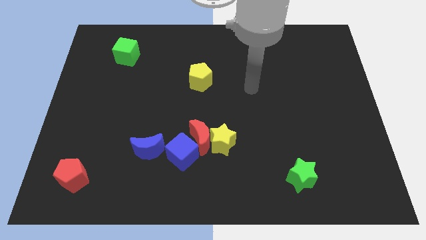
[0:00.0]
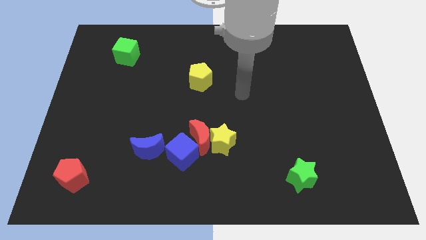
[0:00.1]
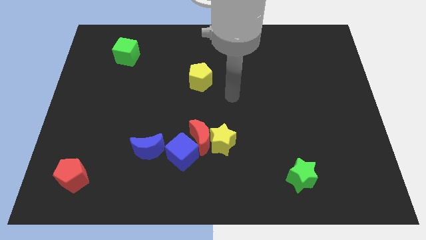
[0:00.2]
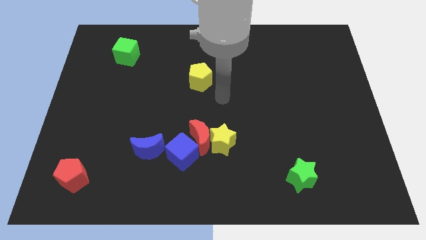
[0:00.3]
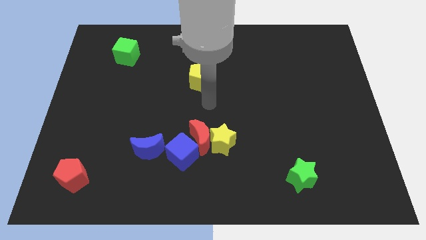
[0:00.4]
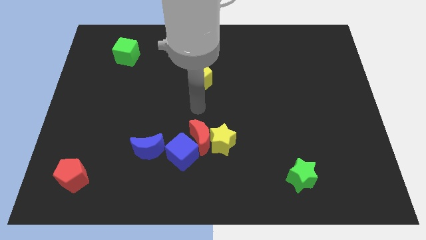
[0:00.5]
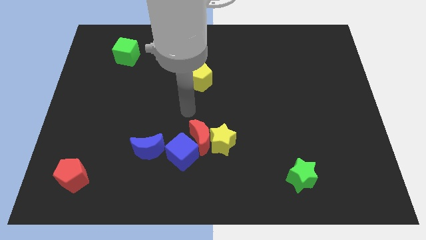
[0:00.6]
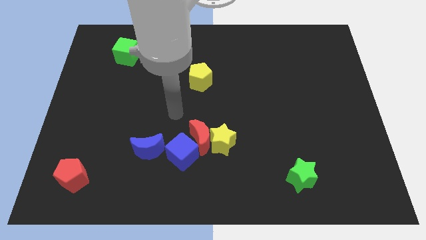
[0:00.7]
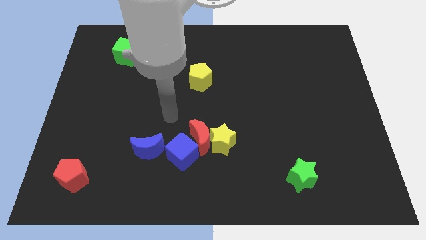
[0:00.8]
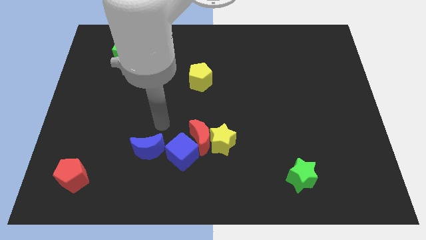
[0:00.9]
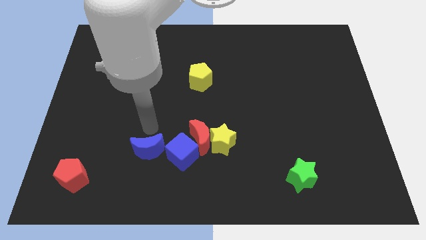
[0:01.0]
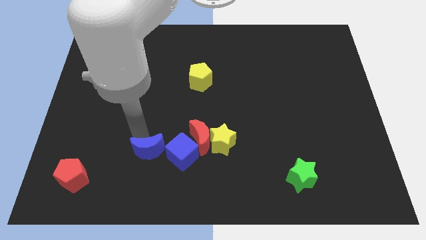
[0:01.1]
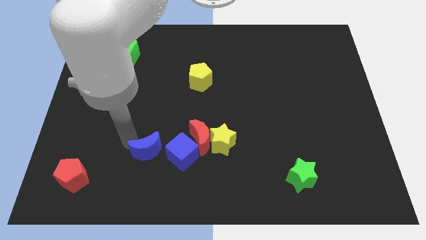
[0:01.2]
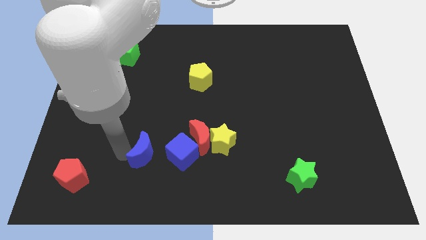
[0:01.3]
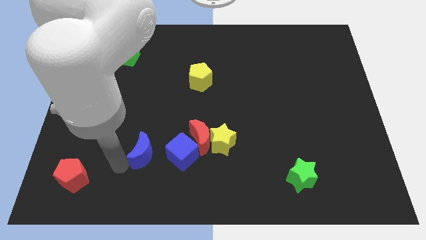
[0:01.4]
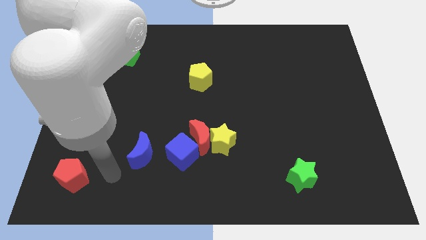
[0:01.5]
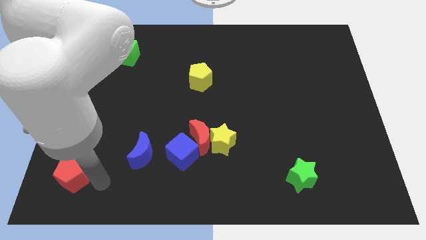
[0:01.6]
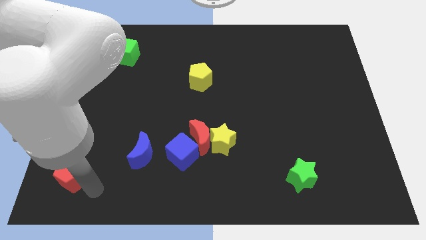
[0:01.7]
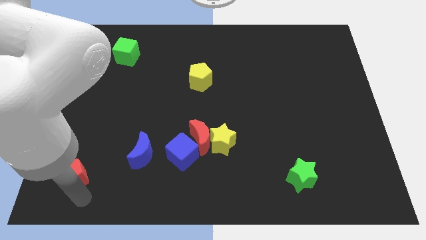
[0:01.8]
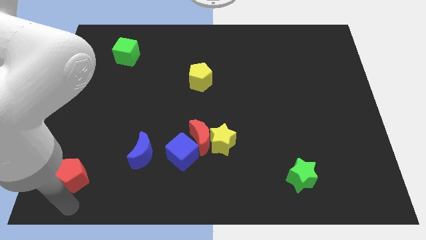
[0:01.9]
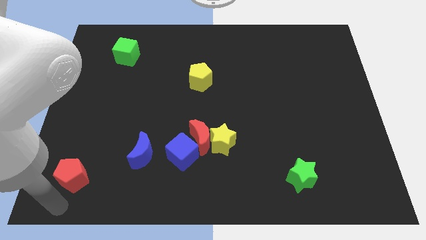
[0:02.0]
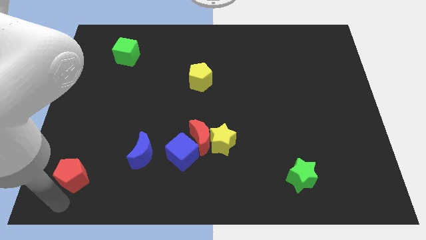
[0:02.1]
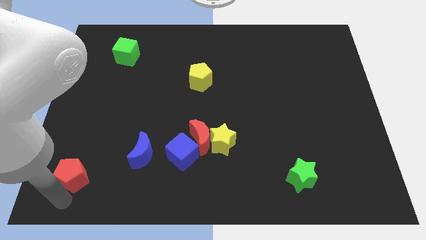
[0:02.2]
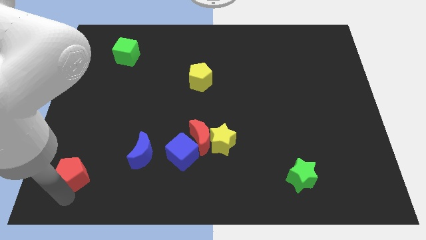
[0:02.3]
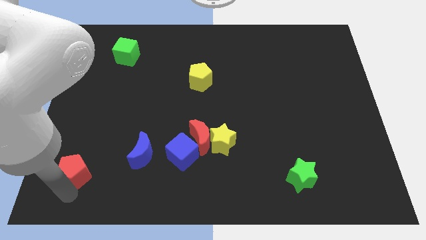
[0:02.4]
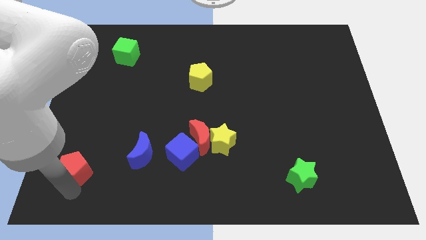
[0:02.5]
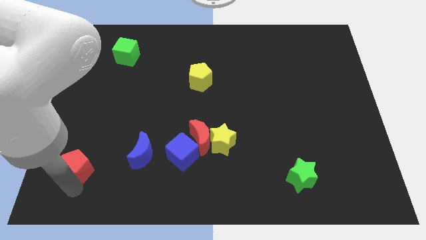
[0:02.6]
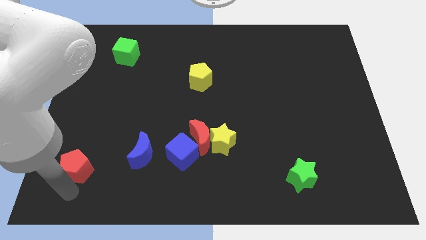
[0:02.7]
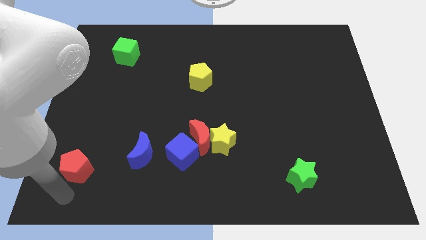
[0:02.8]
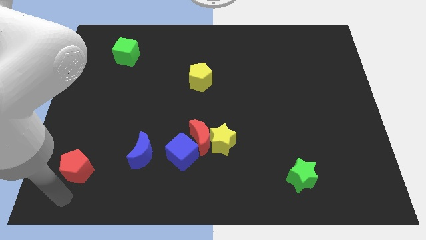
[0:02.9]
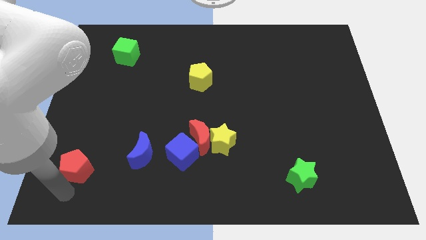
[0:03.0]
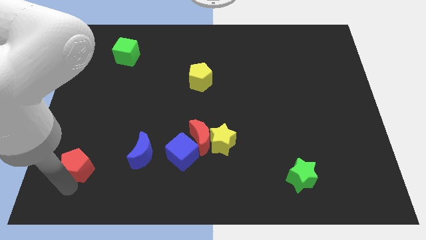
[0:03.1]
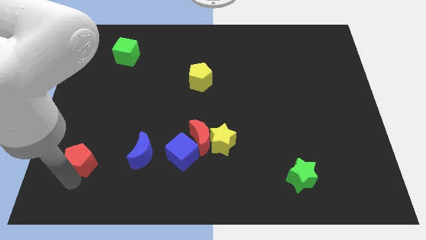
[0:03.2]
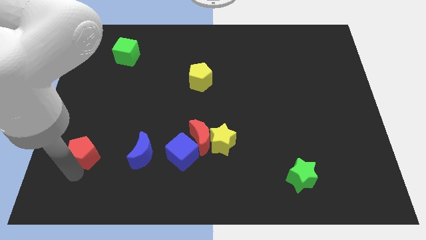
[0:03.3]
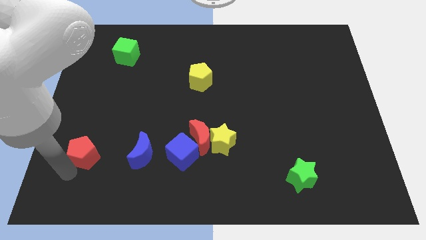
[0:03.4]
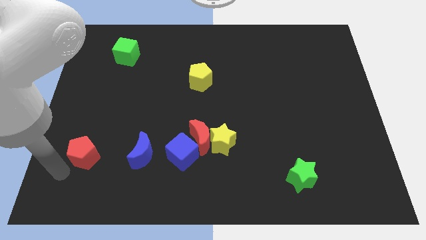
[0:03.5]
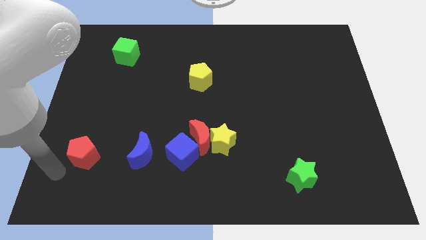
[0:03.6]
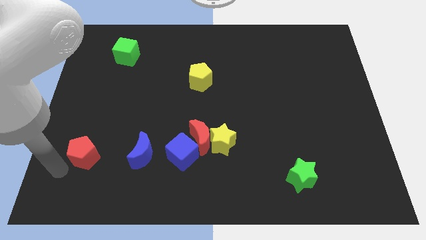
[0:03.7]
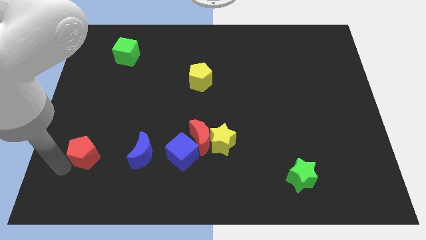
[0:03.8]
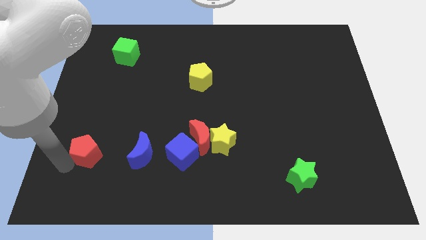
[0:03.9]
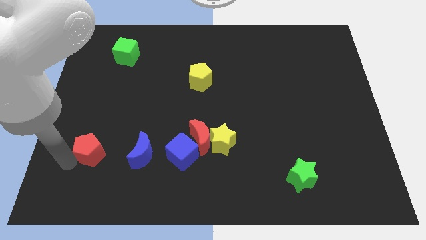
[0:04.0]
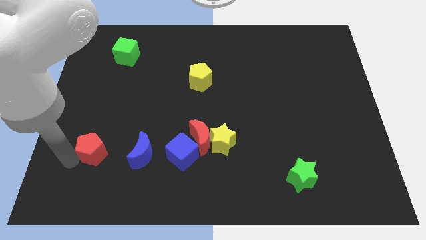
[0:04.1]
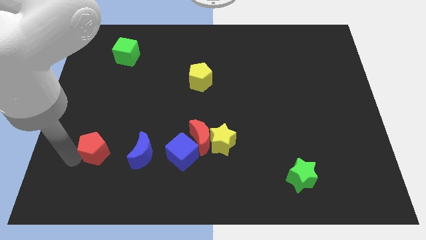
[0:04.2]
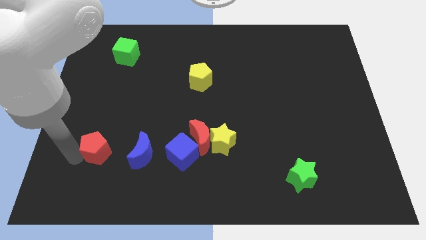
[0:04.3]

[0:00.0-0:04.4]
move the red pentagon up and right diagonally a little

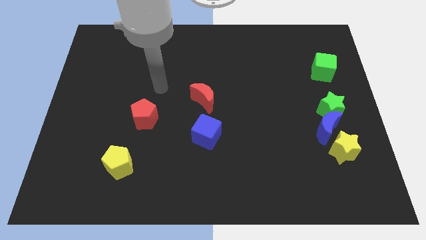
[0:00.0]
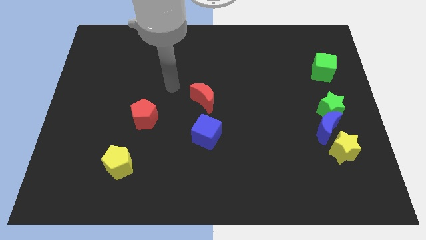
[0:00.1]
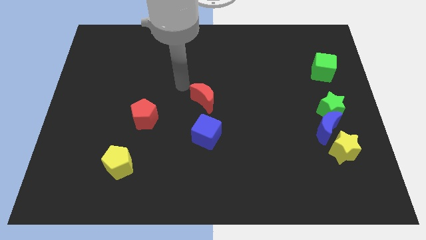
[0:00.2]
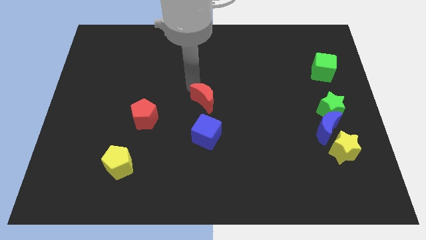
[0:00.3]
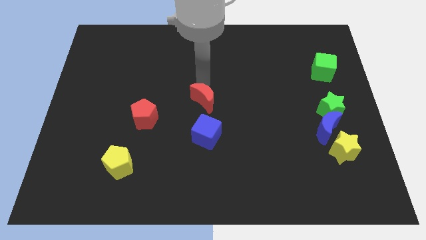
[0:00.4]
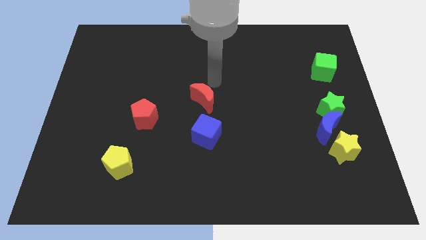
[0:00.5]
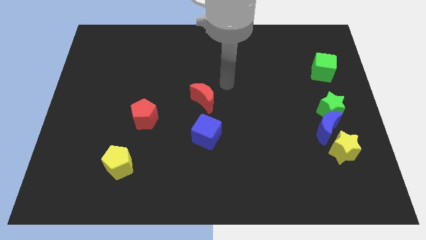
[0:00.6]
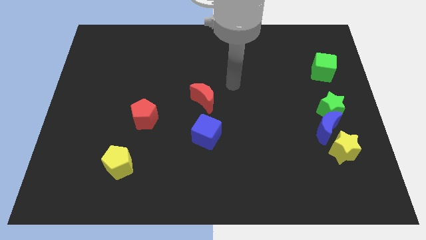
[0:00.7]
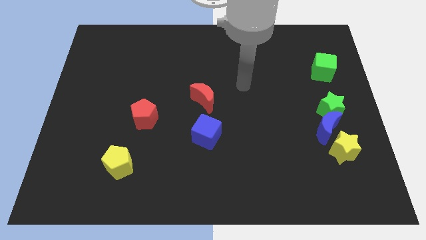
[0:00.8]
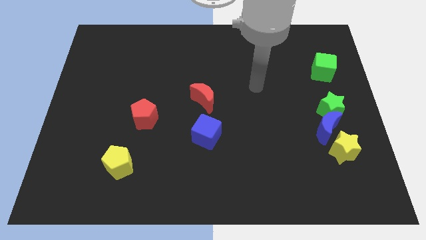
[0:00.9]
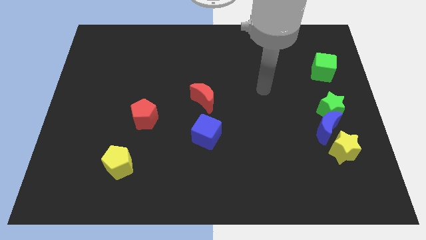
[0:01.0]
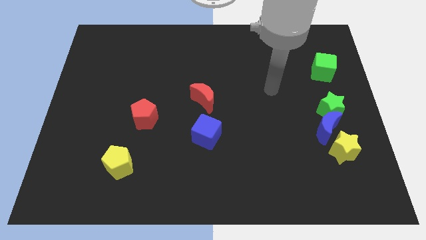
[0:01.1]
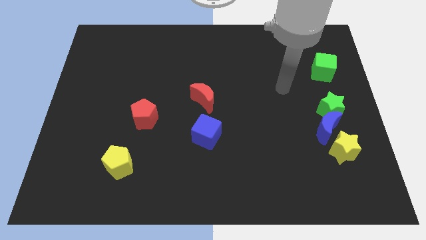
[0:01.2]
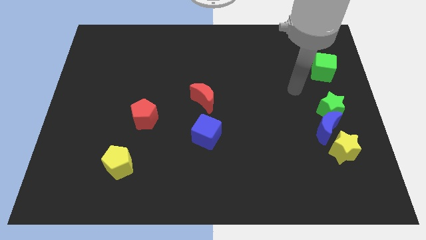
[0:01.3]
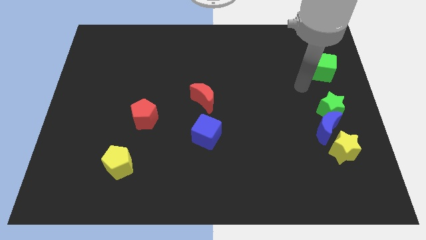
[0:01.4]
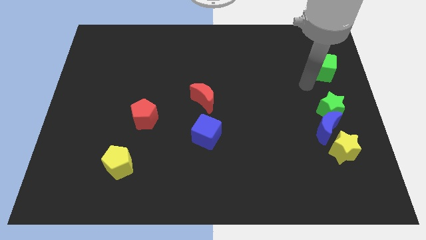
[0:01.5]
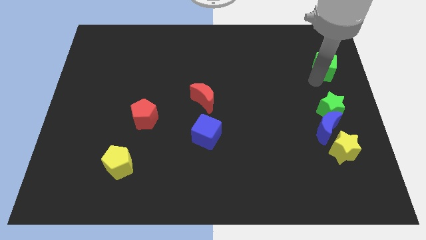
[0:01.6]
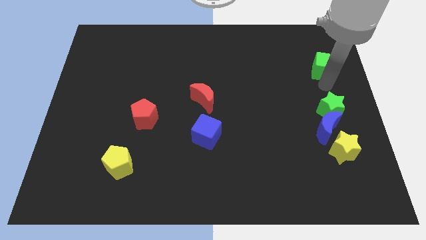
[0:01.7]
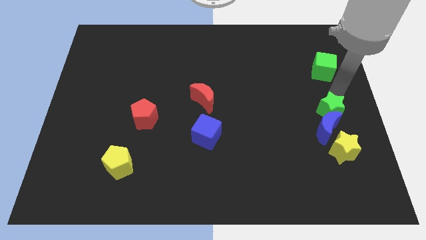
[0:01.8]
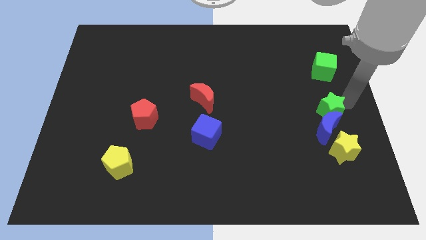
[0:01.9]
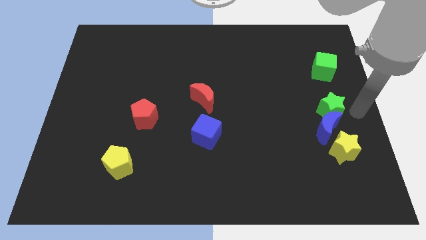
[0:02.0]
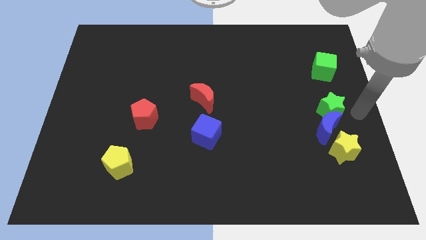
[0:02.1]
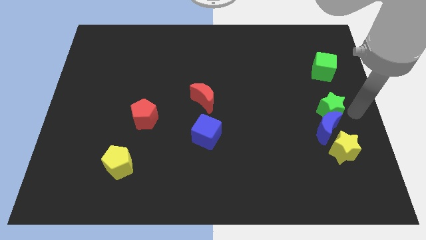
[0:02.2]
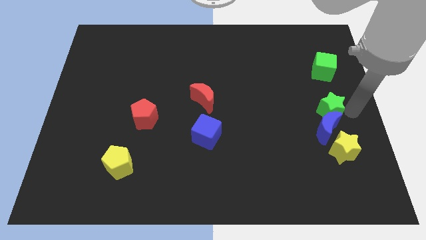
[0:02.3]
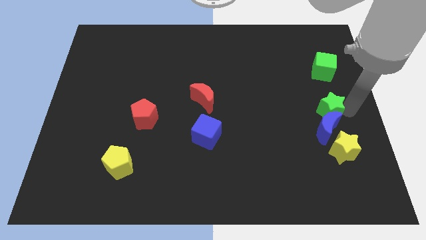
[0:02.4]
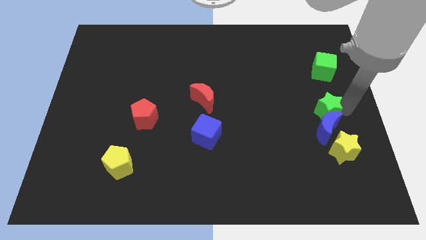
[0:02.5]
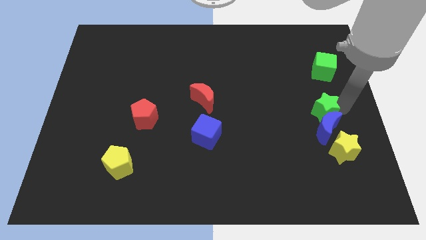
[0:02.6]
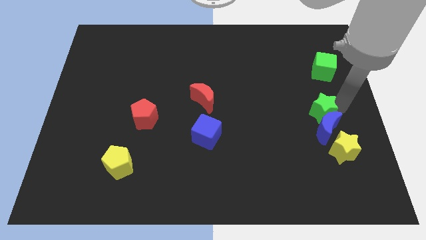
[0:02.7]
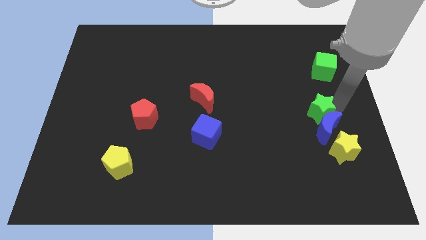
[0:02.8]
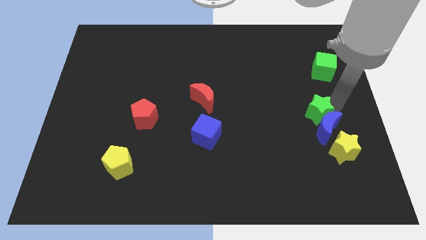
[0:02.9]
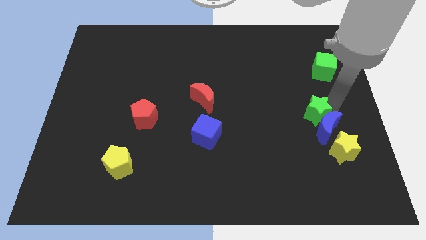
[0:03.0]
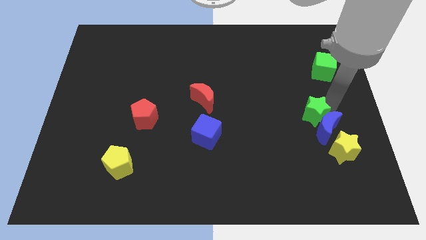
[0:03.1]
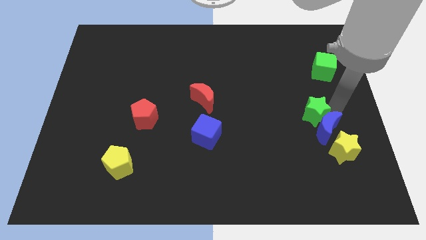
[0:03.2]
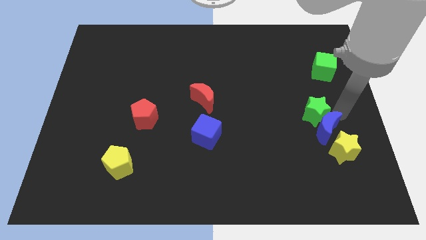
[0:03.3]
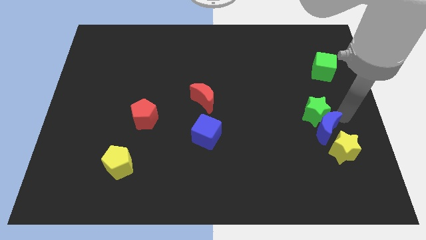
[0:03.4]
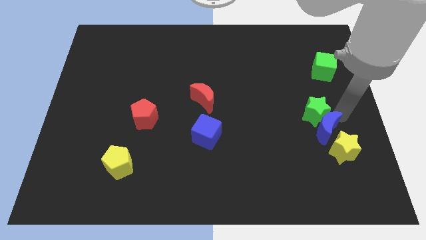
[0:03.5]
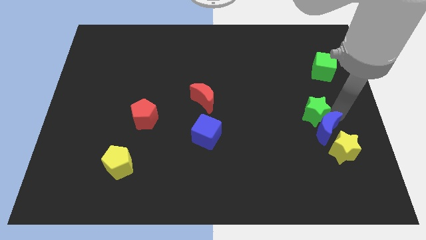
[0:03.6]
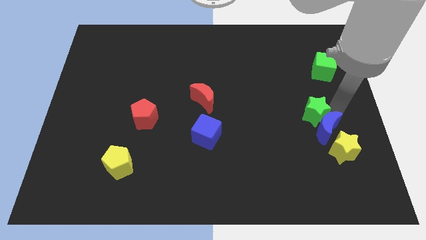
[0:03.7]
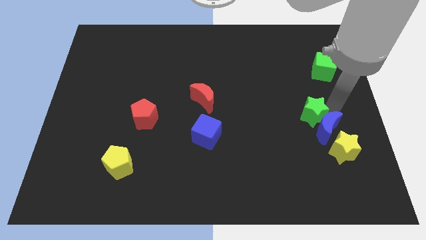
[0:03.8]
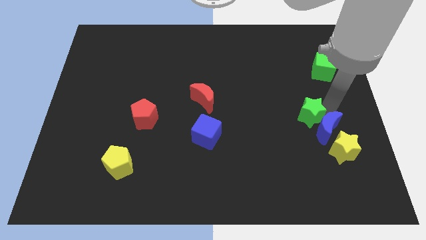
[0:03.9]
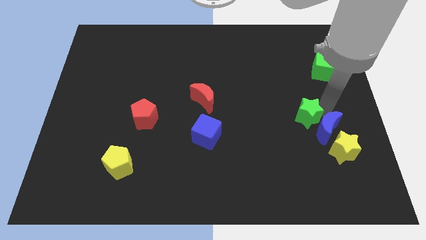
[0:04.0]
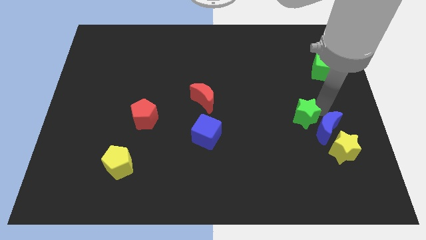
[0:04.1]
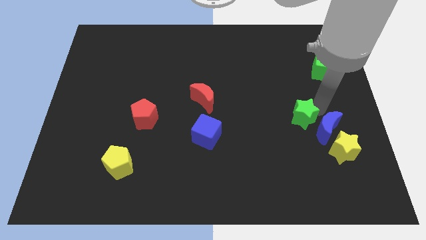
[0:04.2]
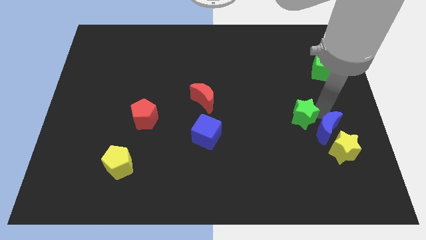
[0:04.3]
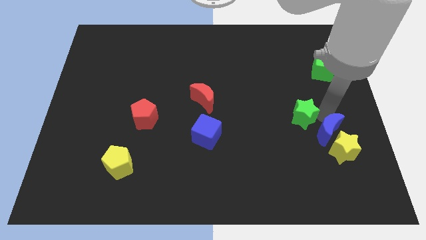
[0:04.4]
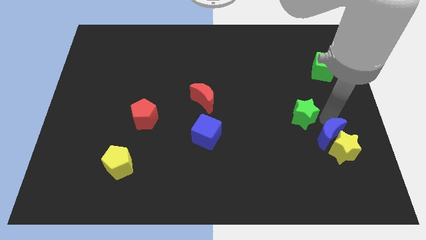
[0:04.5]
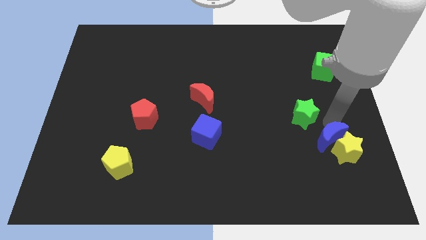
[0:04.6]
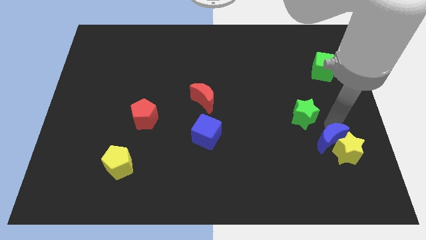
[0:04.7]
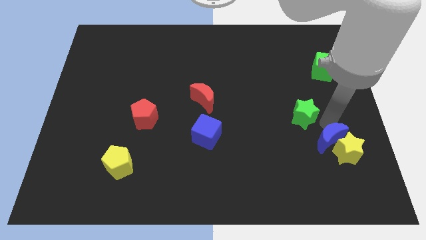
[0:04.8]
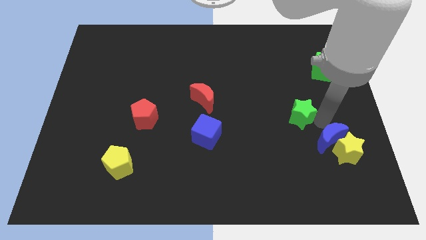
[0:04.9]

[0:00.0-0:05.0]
push the green star slightly to the left
